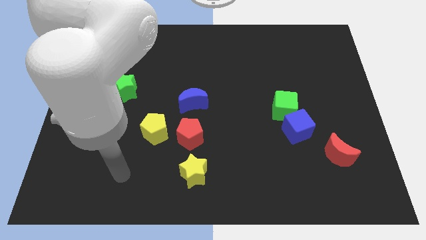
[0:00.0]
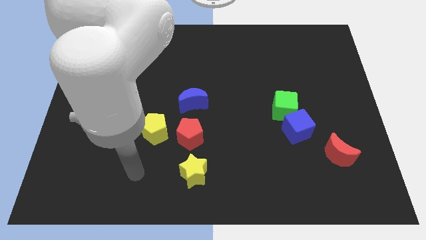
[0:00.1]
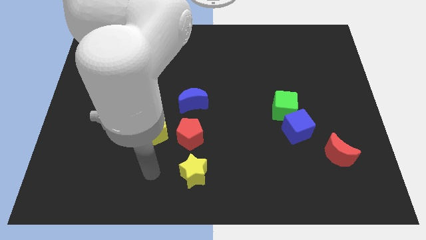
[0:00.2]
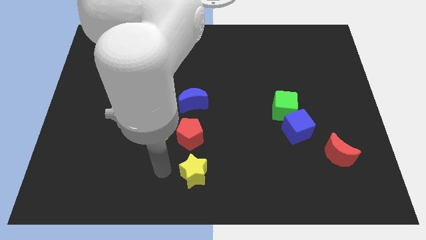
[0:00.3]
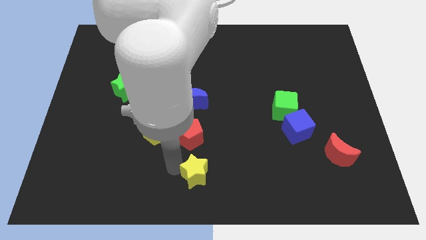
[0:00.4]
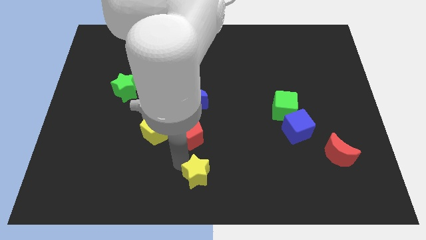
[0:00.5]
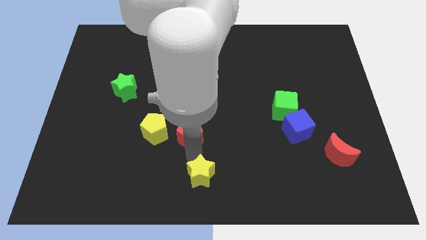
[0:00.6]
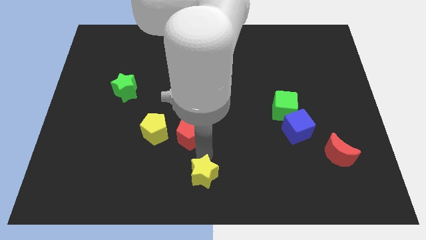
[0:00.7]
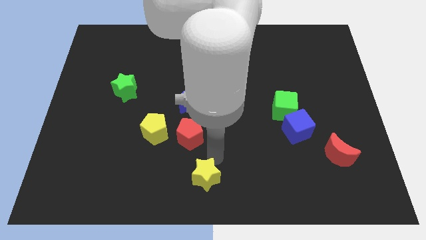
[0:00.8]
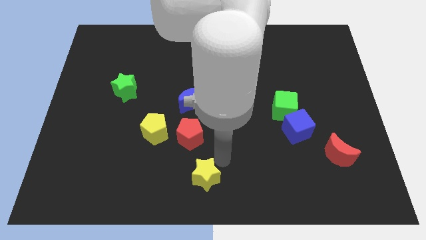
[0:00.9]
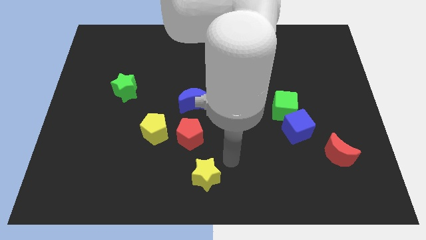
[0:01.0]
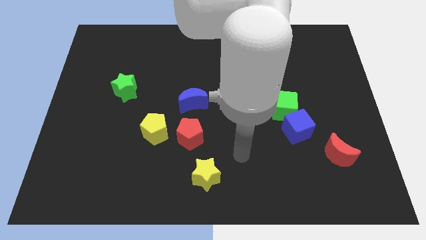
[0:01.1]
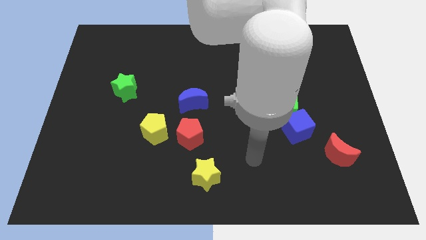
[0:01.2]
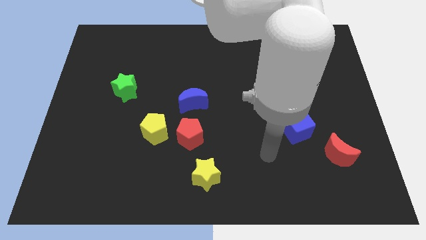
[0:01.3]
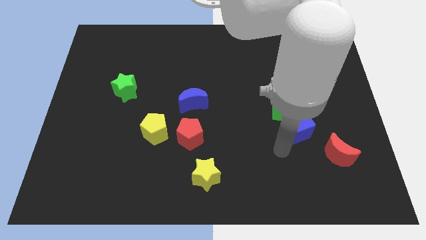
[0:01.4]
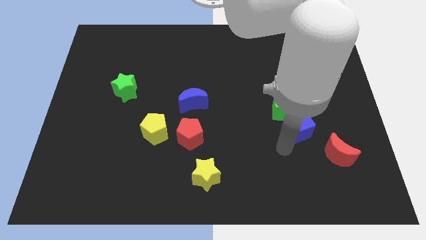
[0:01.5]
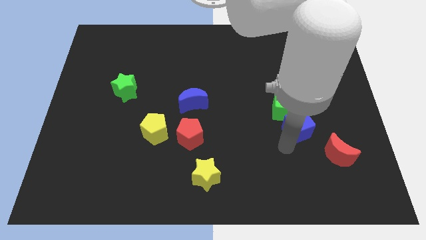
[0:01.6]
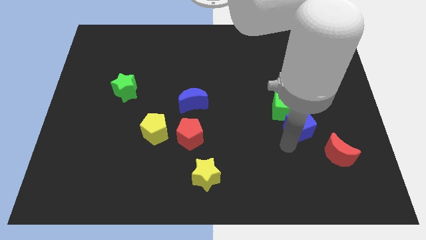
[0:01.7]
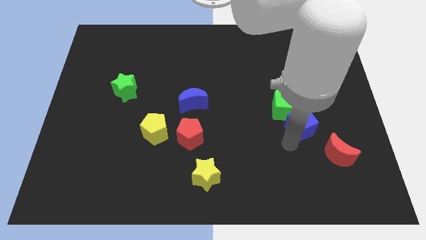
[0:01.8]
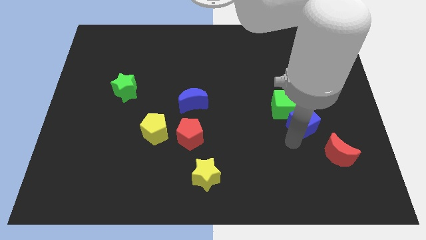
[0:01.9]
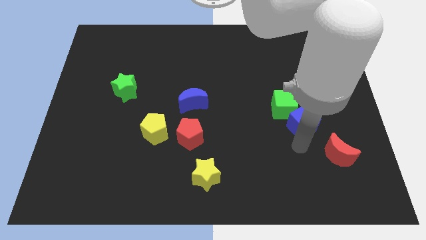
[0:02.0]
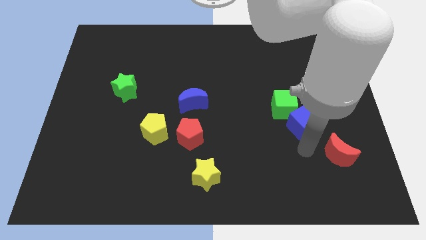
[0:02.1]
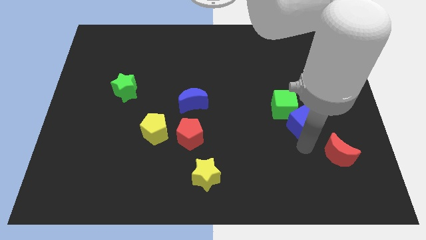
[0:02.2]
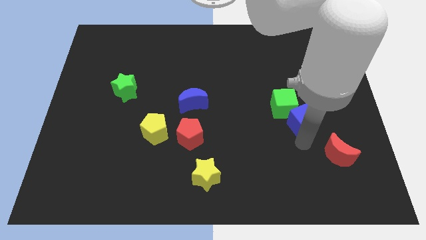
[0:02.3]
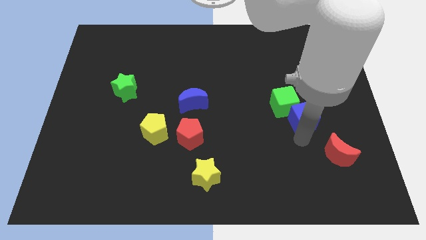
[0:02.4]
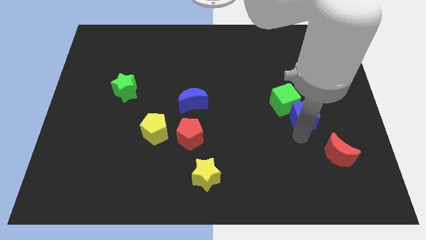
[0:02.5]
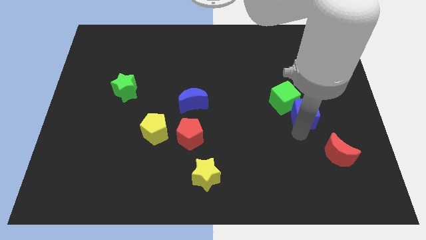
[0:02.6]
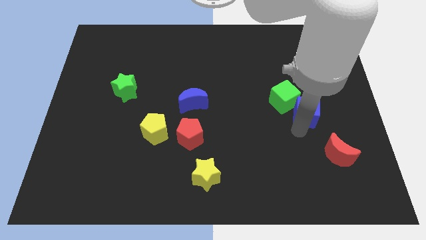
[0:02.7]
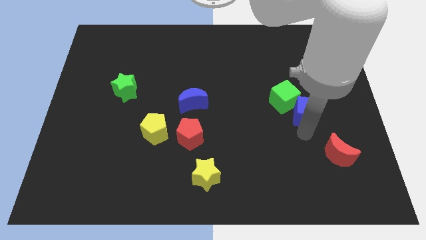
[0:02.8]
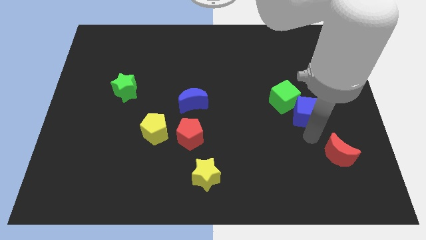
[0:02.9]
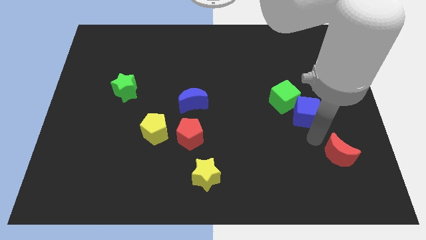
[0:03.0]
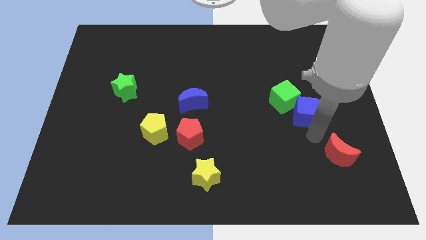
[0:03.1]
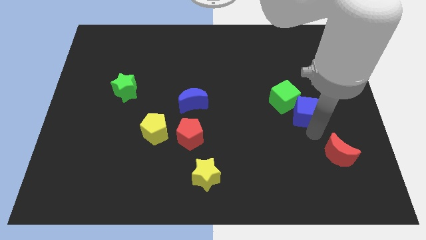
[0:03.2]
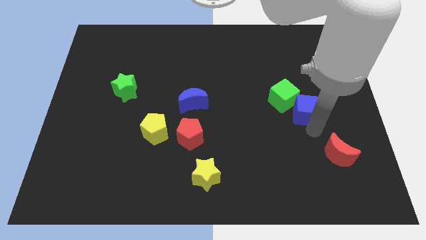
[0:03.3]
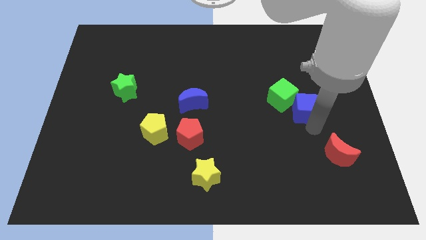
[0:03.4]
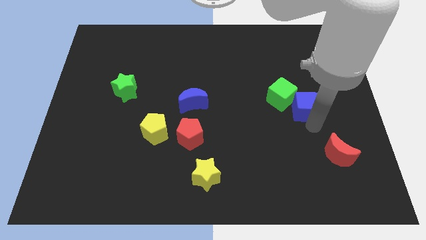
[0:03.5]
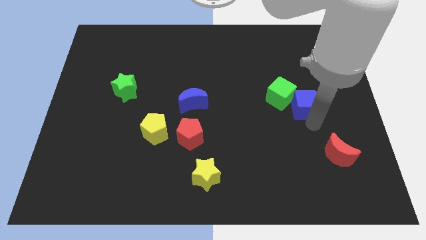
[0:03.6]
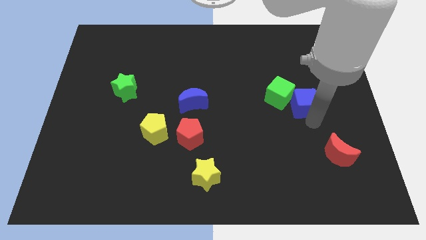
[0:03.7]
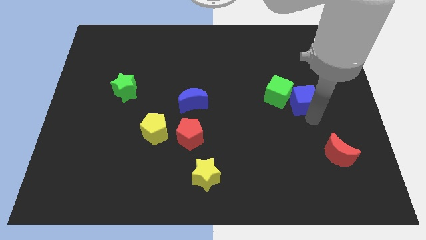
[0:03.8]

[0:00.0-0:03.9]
push the blue cube a little upwards

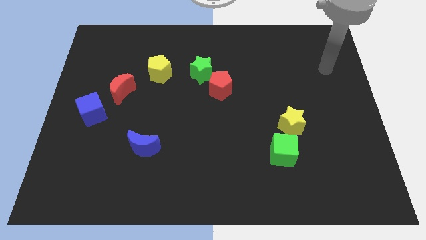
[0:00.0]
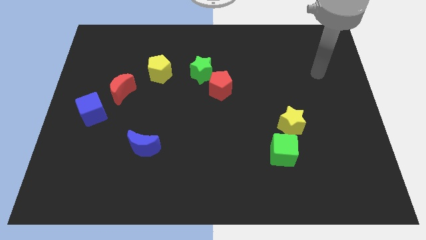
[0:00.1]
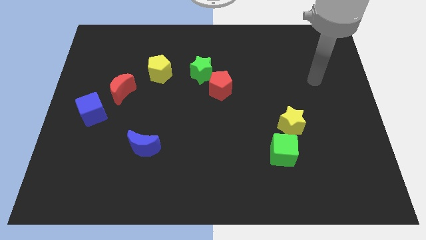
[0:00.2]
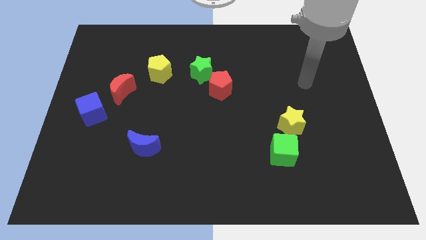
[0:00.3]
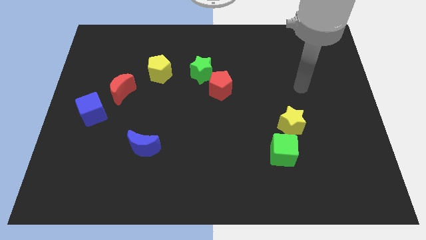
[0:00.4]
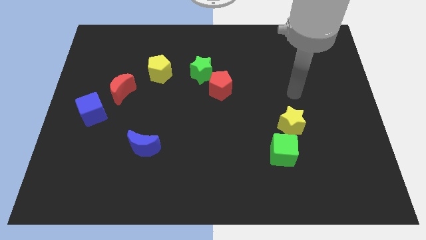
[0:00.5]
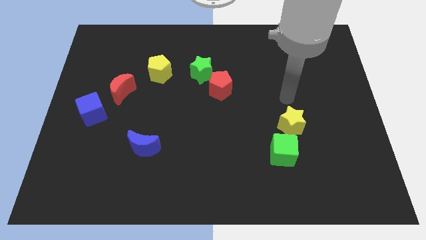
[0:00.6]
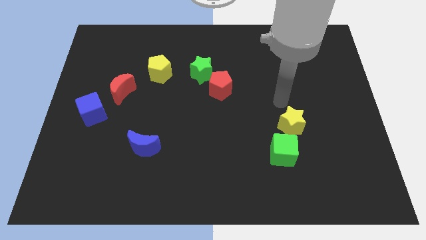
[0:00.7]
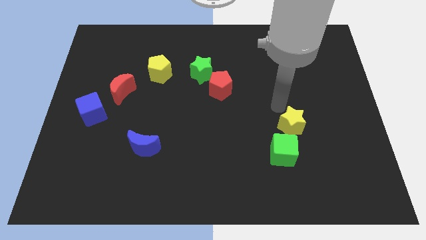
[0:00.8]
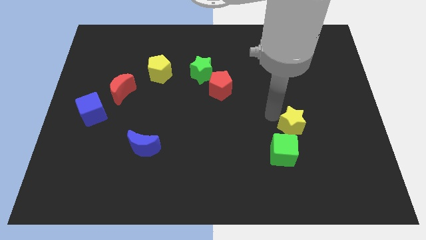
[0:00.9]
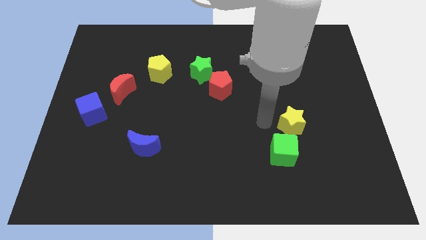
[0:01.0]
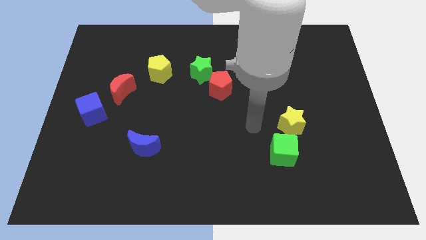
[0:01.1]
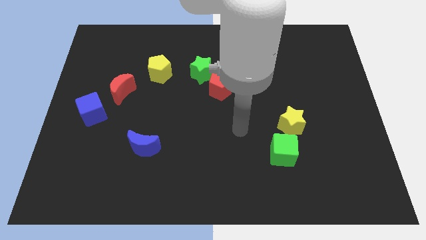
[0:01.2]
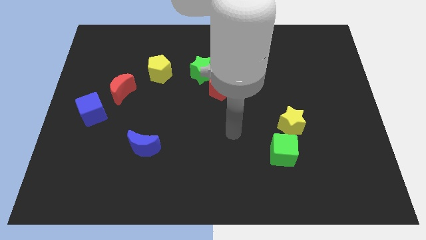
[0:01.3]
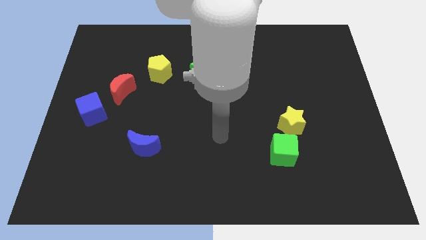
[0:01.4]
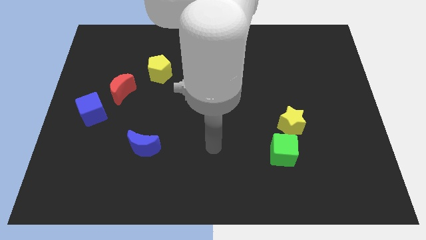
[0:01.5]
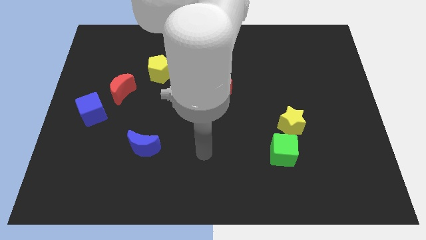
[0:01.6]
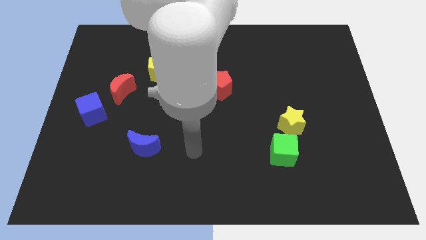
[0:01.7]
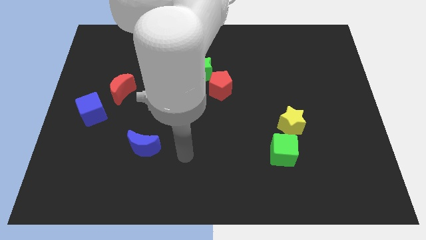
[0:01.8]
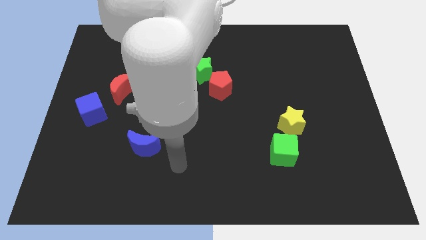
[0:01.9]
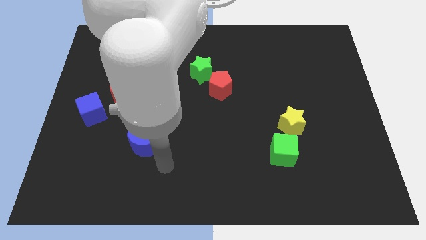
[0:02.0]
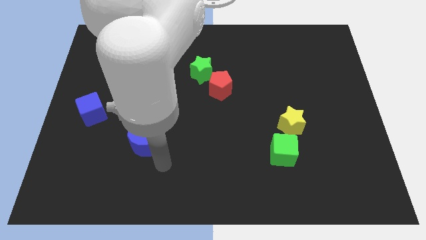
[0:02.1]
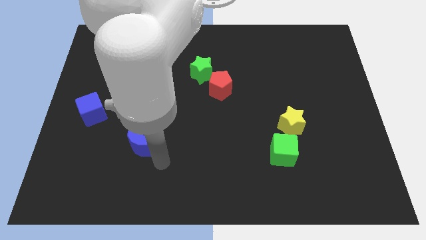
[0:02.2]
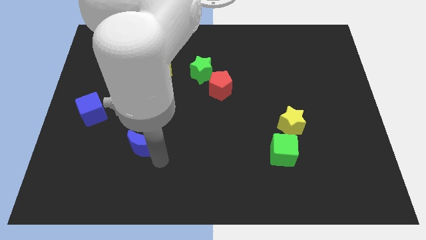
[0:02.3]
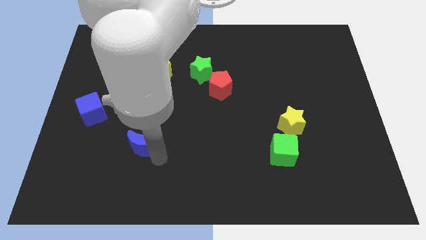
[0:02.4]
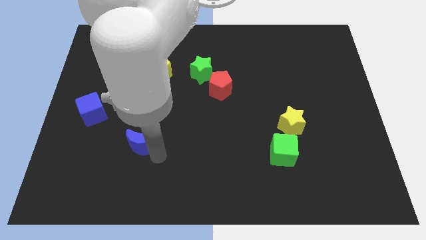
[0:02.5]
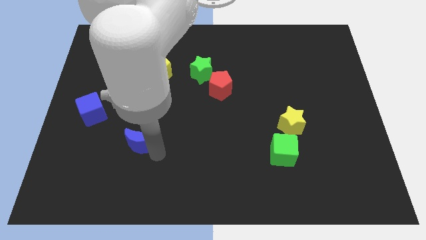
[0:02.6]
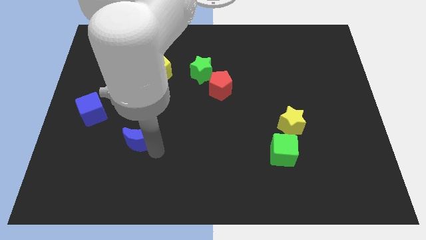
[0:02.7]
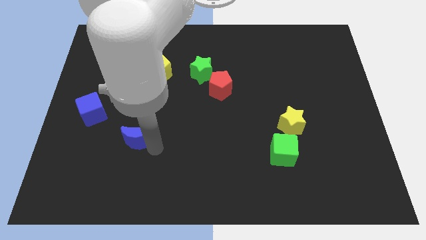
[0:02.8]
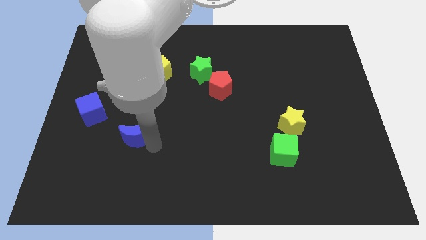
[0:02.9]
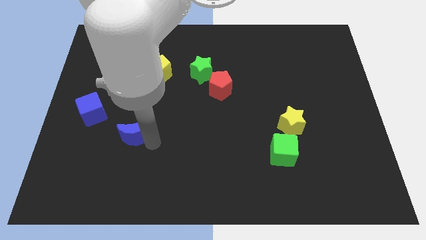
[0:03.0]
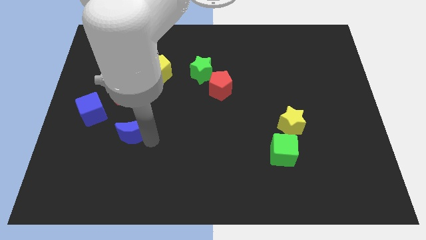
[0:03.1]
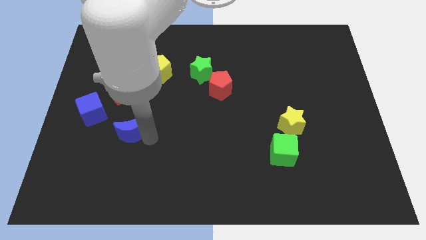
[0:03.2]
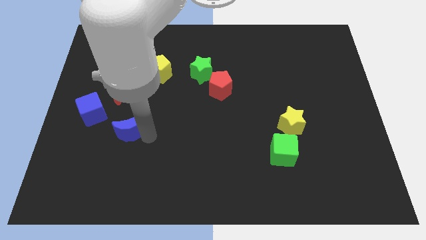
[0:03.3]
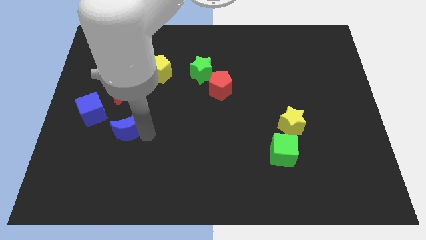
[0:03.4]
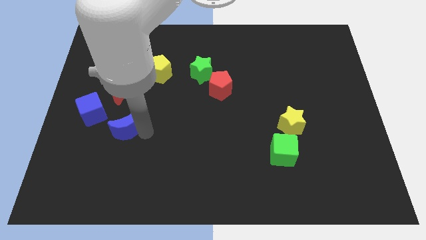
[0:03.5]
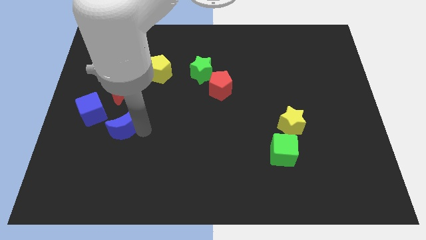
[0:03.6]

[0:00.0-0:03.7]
slightly slide the blue moon upwards and left diagonally

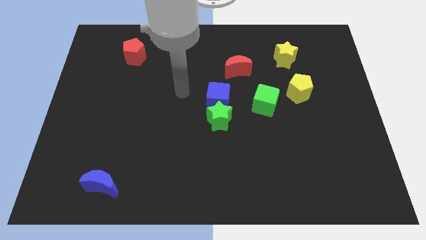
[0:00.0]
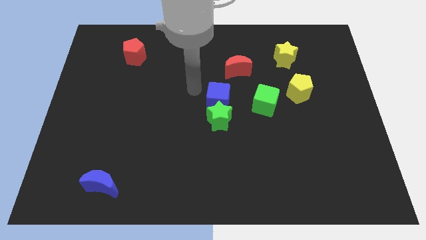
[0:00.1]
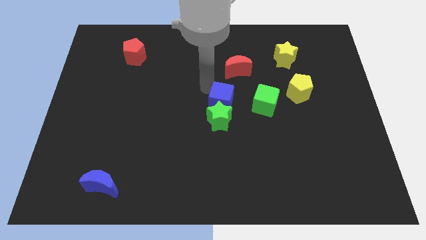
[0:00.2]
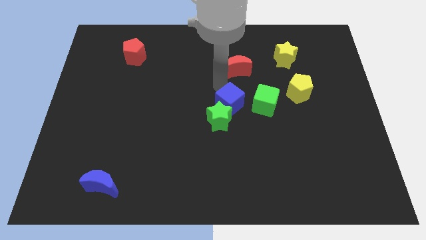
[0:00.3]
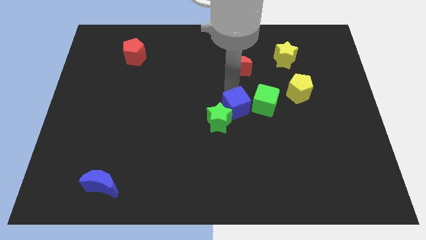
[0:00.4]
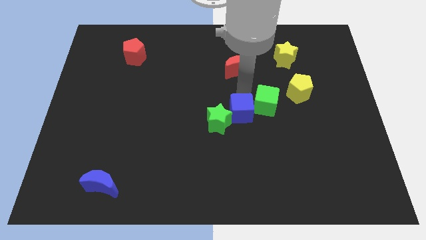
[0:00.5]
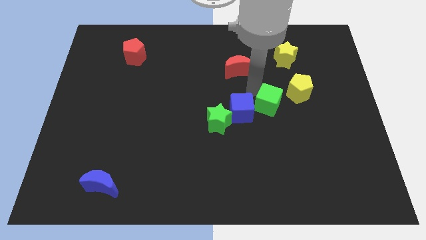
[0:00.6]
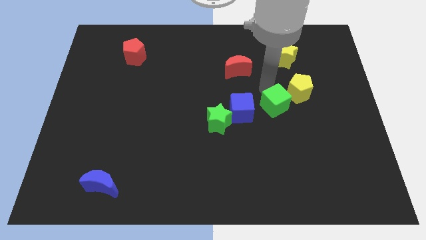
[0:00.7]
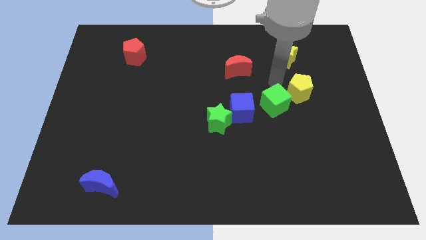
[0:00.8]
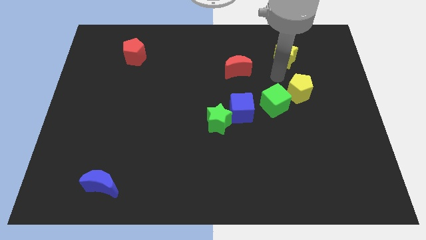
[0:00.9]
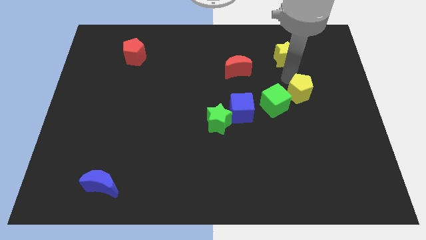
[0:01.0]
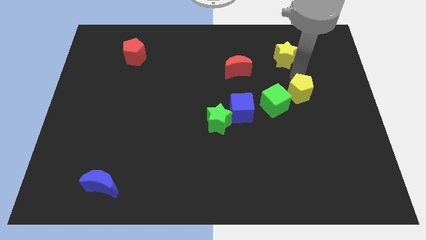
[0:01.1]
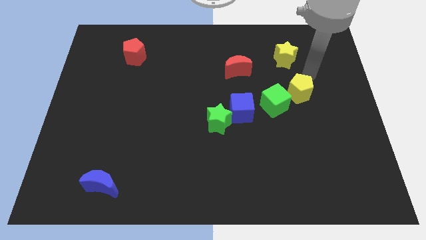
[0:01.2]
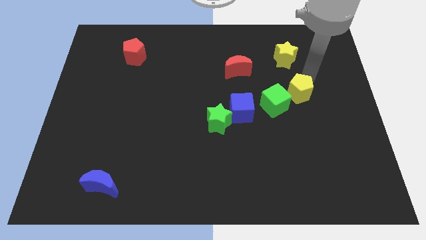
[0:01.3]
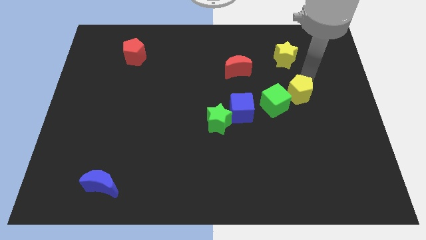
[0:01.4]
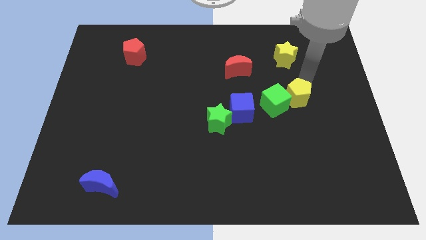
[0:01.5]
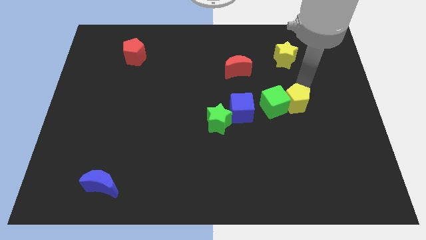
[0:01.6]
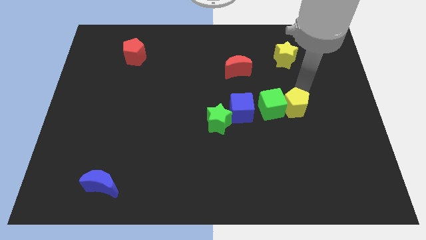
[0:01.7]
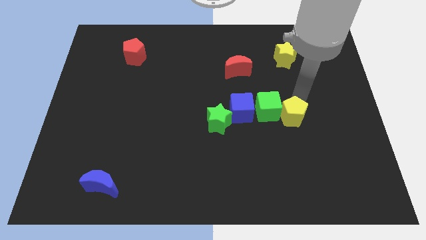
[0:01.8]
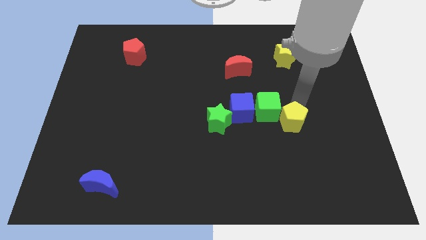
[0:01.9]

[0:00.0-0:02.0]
move the yellow pentagon downwards and left diagonally a little bit
